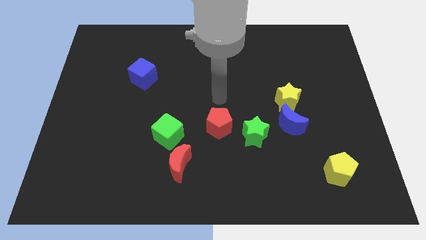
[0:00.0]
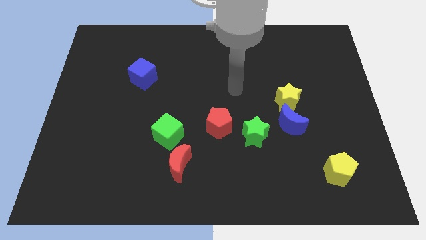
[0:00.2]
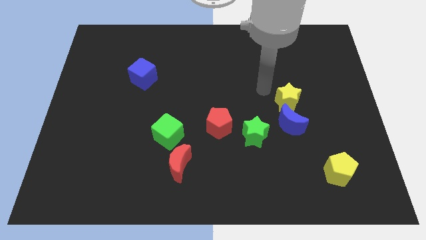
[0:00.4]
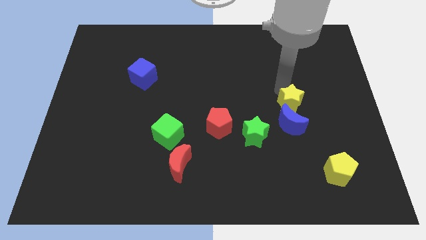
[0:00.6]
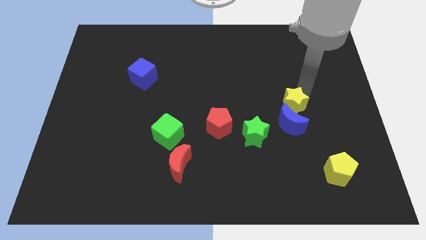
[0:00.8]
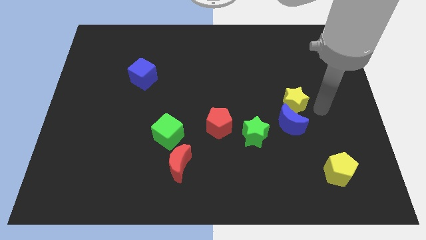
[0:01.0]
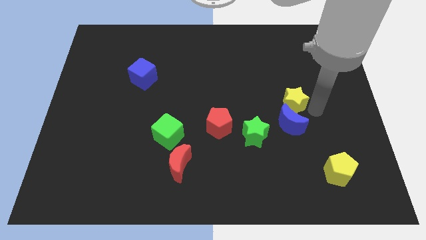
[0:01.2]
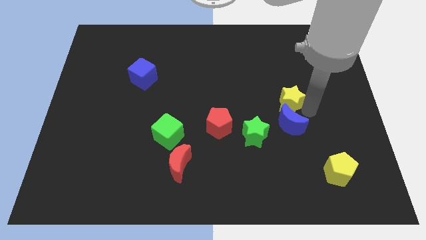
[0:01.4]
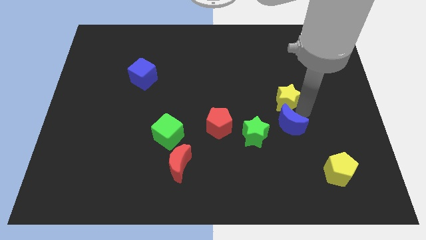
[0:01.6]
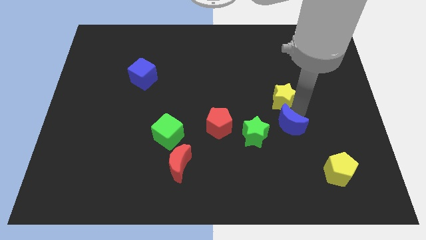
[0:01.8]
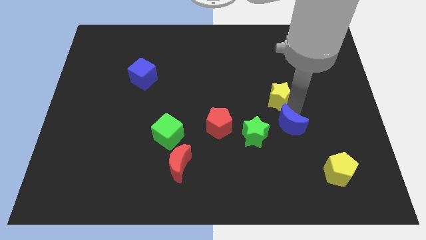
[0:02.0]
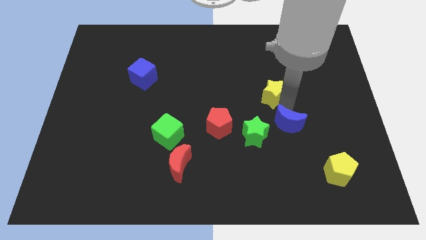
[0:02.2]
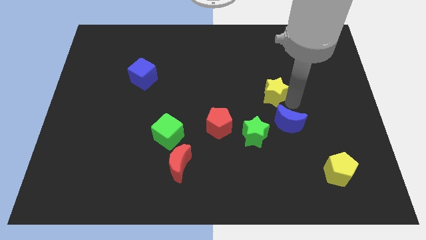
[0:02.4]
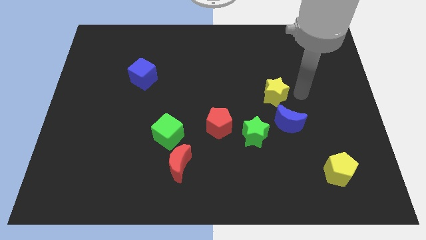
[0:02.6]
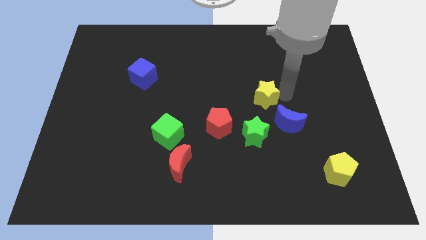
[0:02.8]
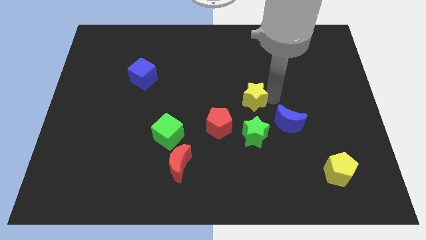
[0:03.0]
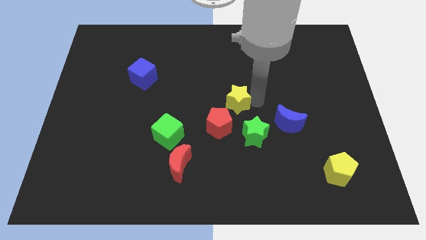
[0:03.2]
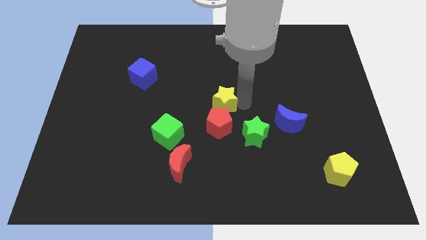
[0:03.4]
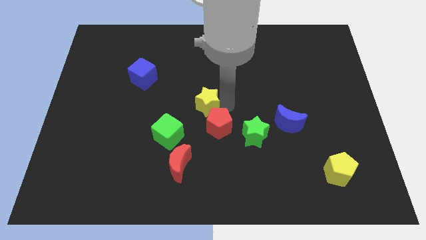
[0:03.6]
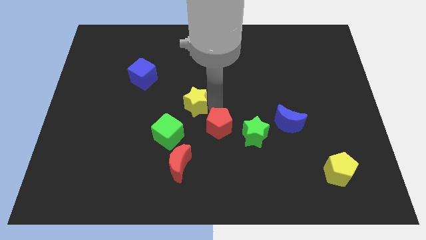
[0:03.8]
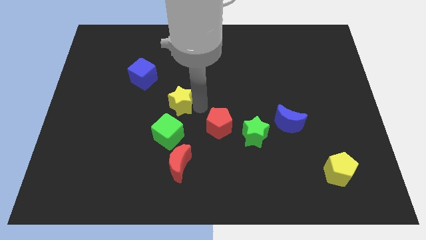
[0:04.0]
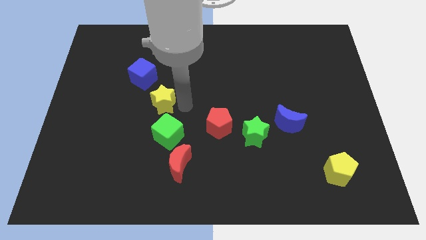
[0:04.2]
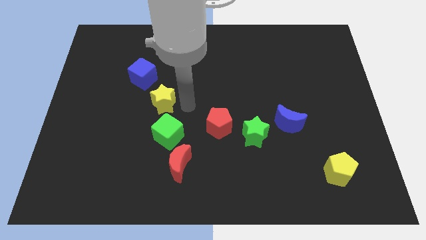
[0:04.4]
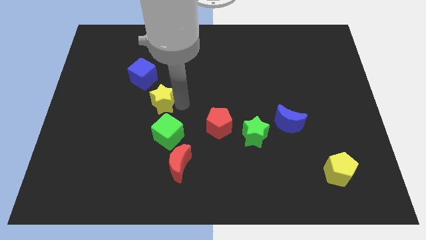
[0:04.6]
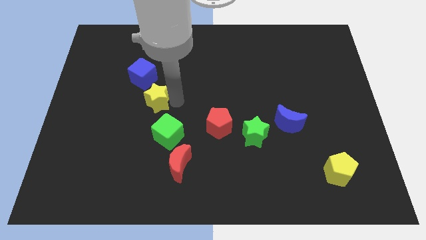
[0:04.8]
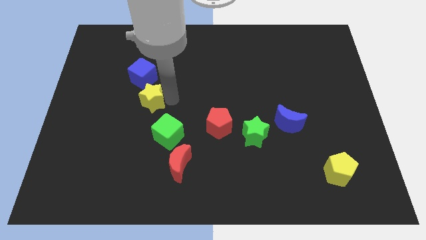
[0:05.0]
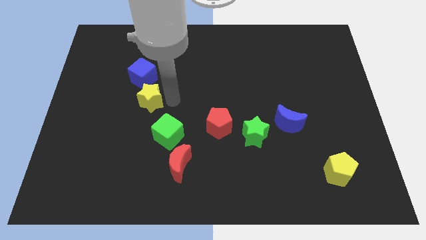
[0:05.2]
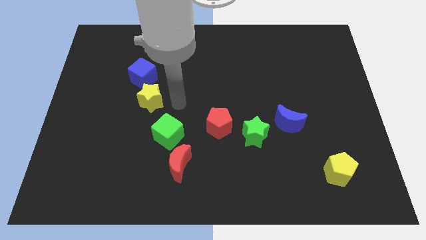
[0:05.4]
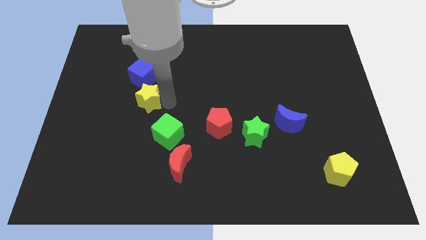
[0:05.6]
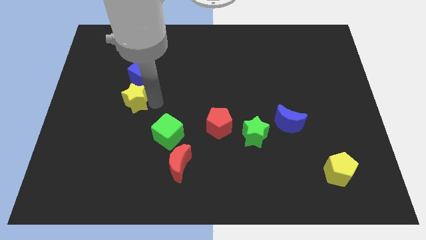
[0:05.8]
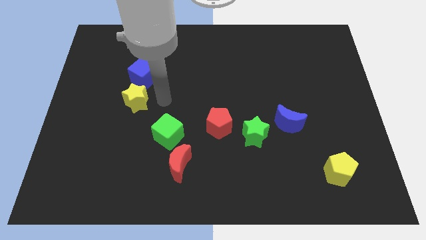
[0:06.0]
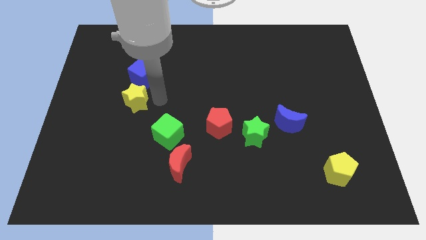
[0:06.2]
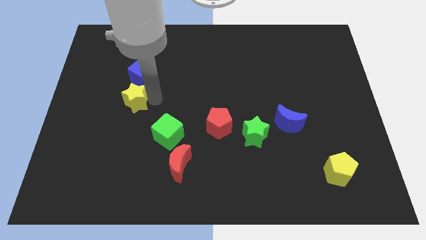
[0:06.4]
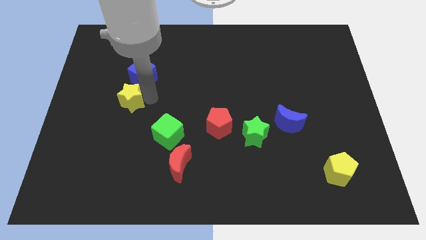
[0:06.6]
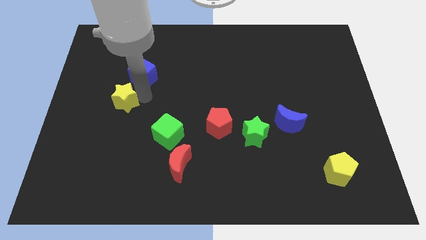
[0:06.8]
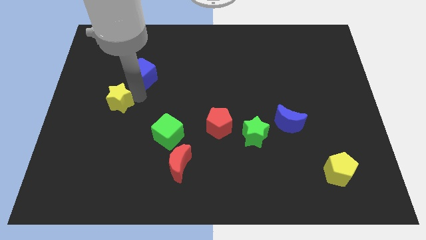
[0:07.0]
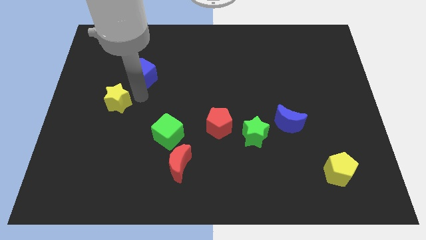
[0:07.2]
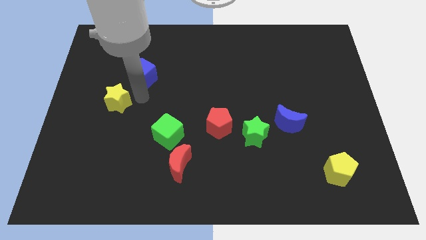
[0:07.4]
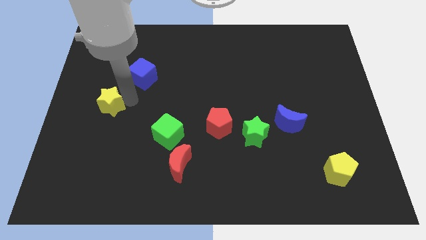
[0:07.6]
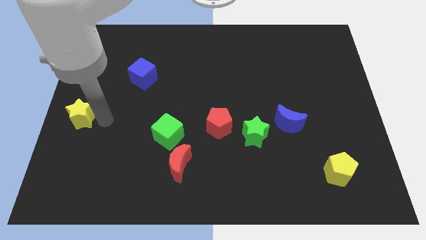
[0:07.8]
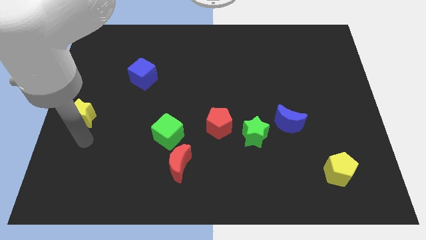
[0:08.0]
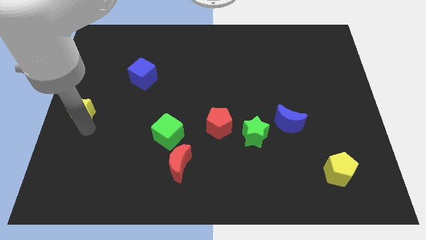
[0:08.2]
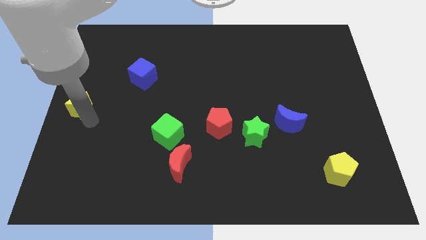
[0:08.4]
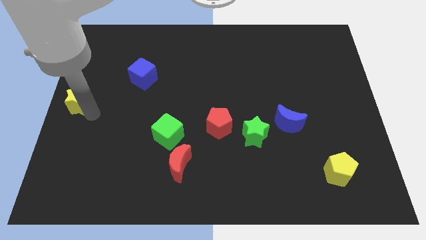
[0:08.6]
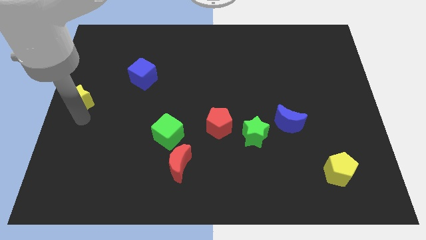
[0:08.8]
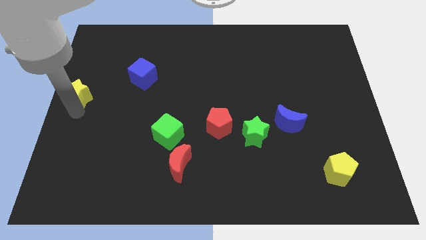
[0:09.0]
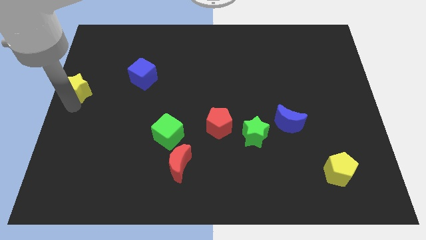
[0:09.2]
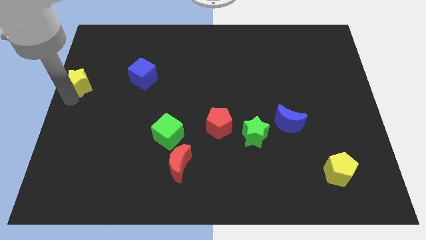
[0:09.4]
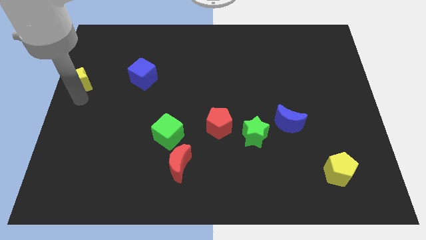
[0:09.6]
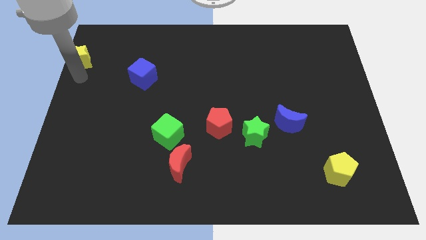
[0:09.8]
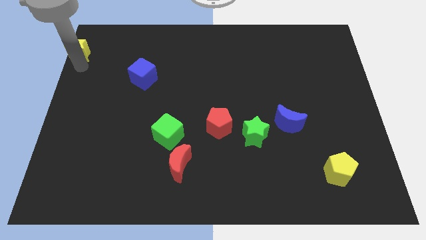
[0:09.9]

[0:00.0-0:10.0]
move the yellow star to the top left

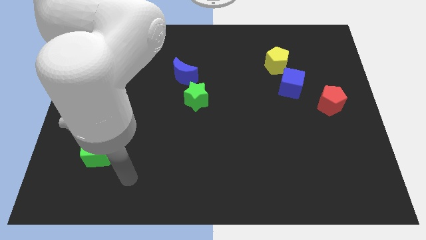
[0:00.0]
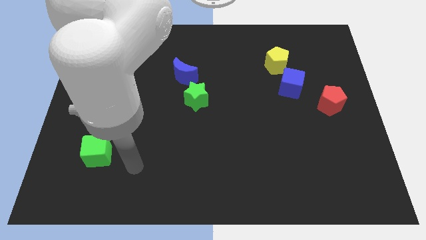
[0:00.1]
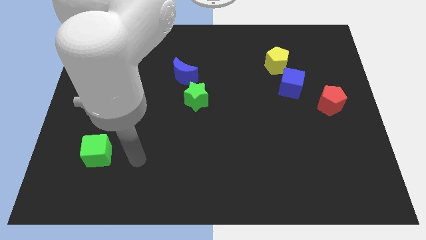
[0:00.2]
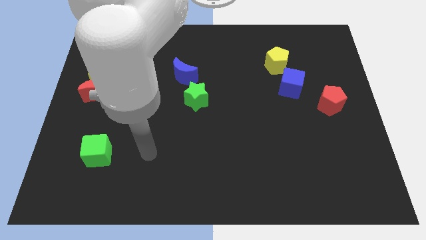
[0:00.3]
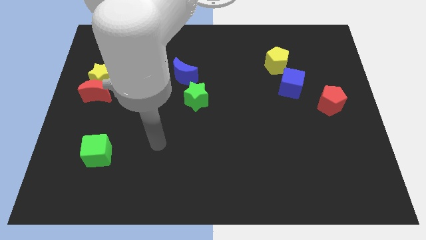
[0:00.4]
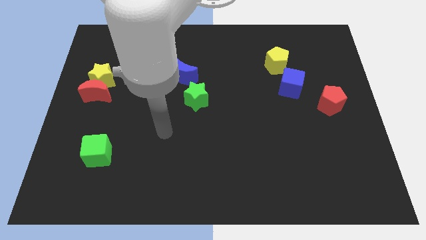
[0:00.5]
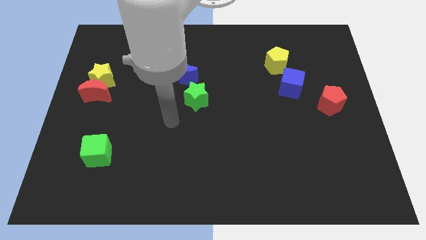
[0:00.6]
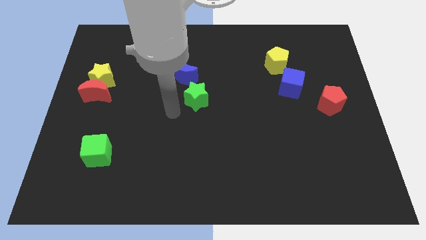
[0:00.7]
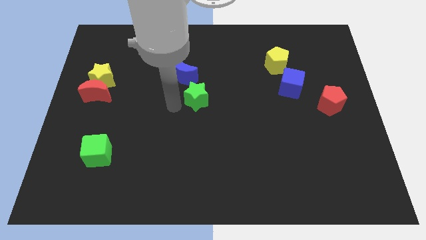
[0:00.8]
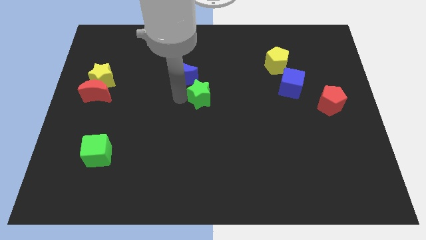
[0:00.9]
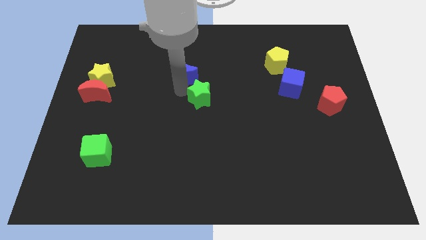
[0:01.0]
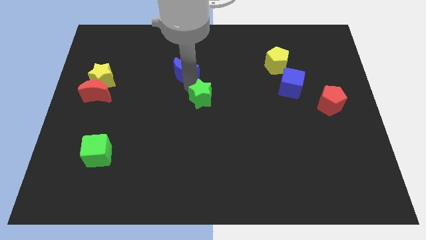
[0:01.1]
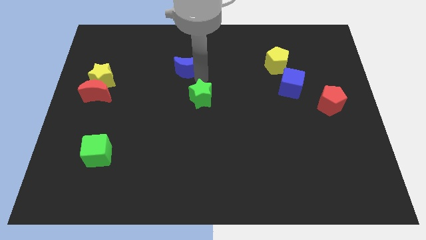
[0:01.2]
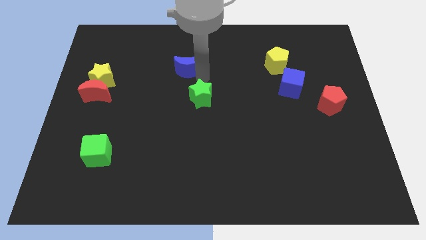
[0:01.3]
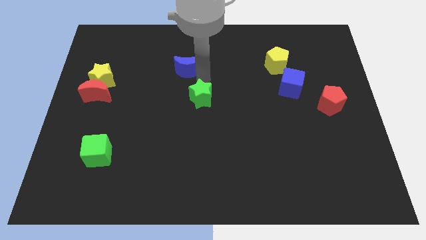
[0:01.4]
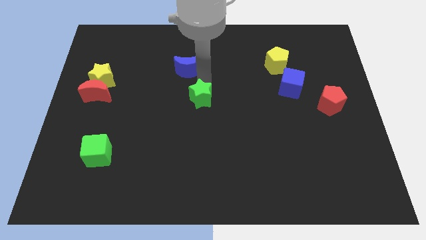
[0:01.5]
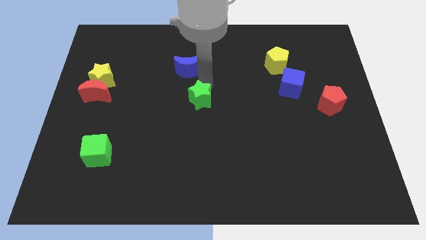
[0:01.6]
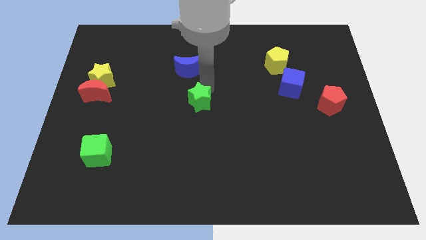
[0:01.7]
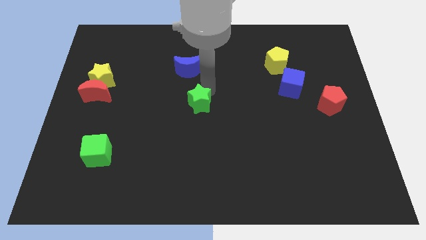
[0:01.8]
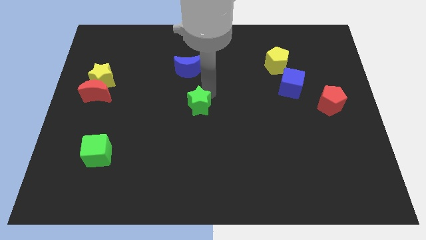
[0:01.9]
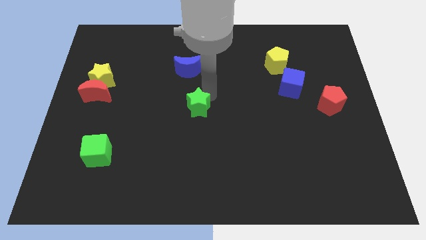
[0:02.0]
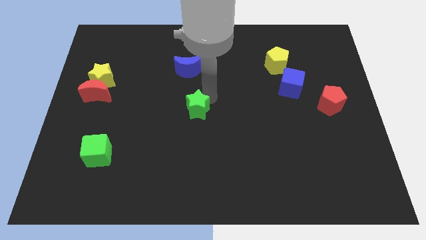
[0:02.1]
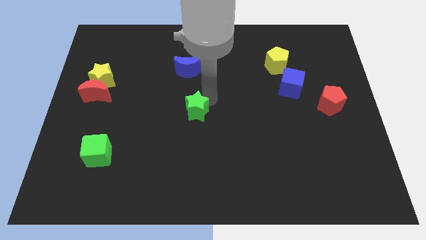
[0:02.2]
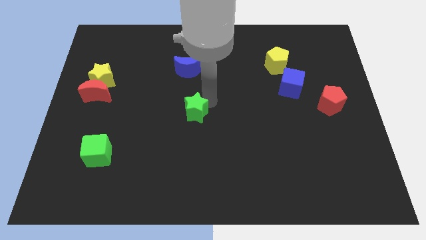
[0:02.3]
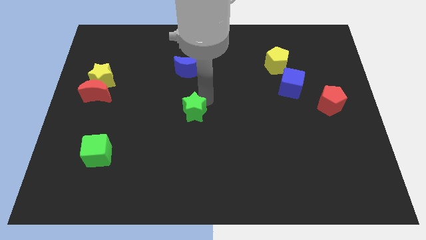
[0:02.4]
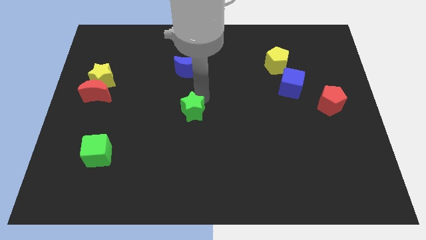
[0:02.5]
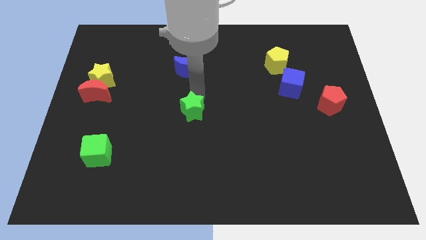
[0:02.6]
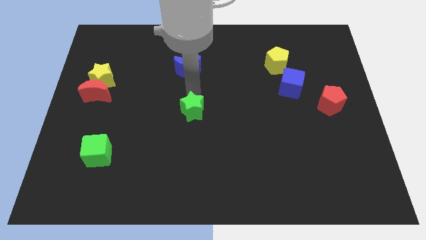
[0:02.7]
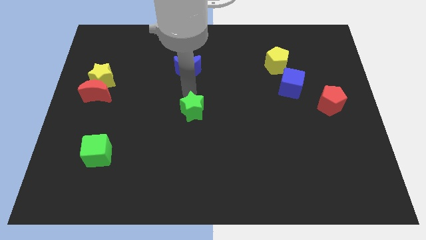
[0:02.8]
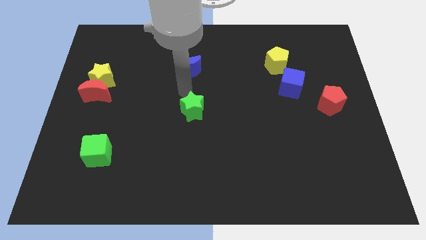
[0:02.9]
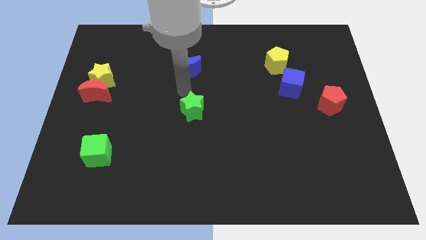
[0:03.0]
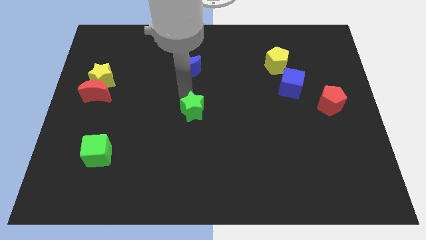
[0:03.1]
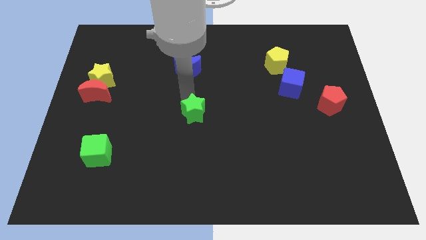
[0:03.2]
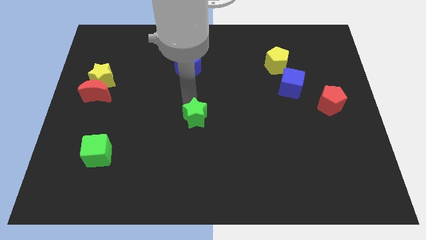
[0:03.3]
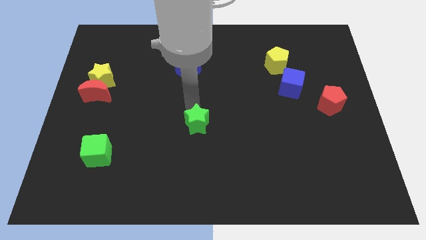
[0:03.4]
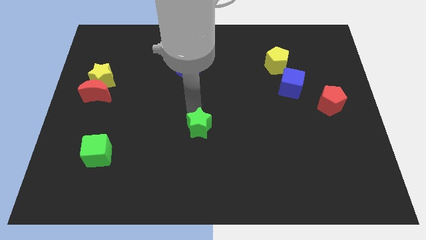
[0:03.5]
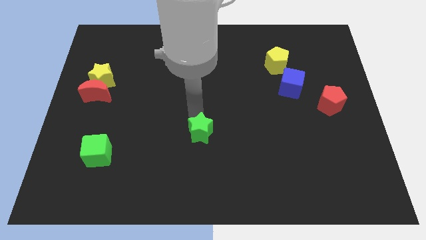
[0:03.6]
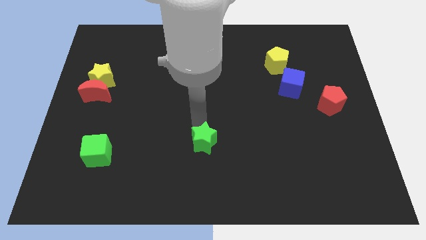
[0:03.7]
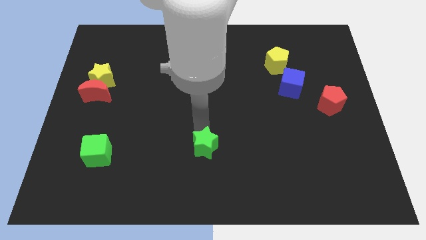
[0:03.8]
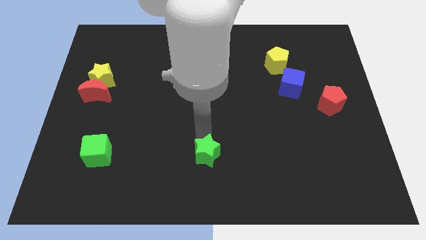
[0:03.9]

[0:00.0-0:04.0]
put the green star to the bottom
